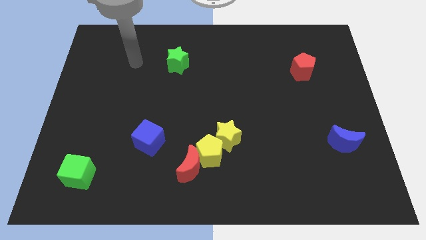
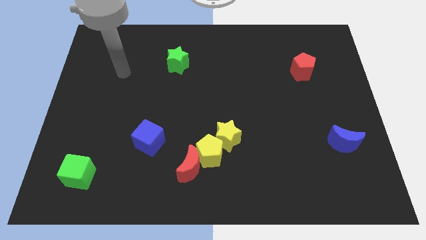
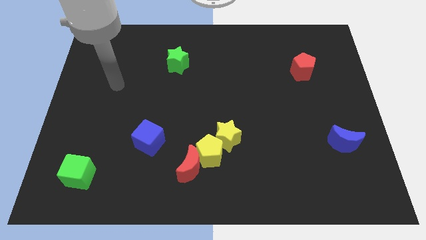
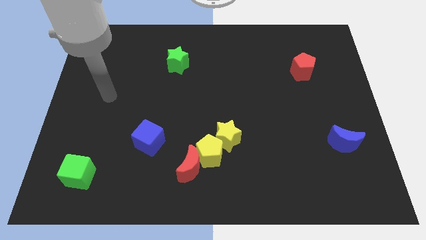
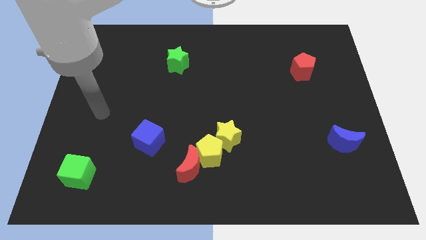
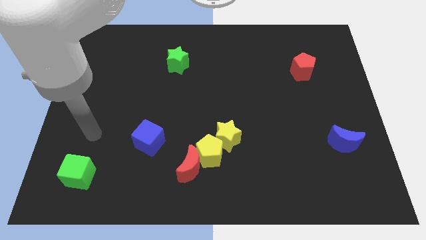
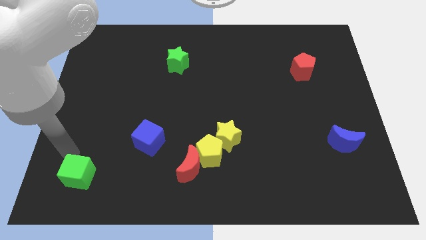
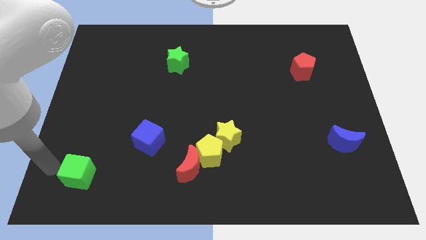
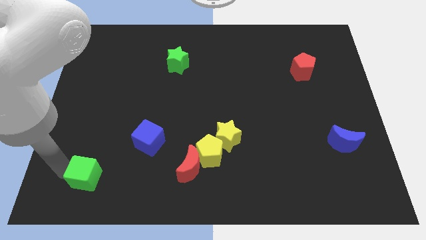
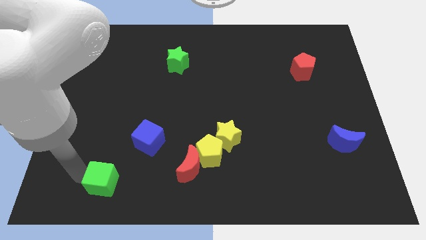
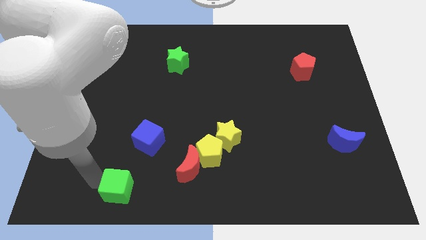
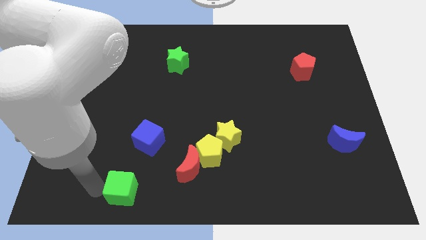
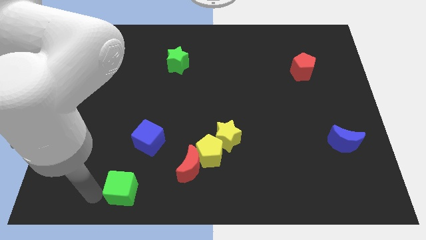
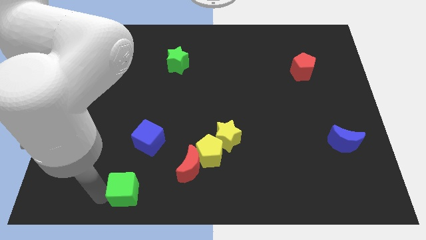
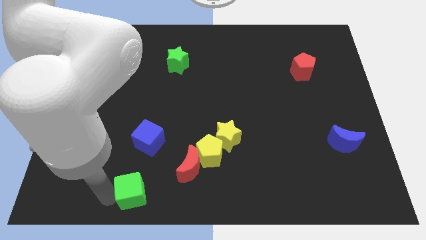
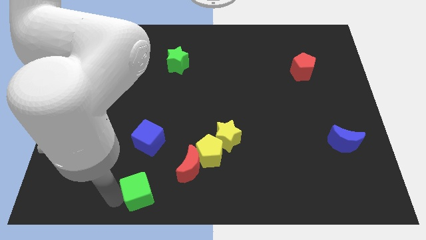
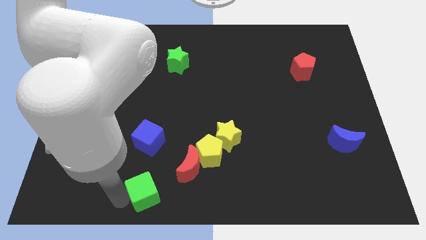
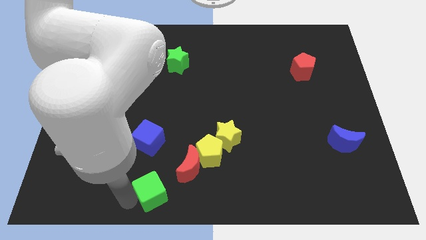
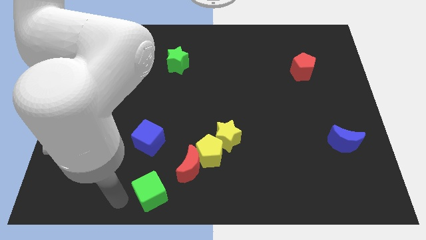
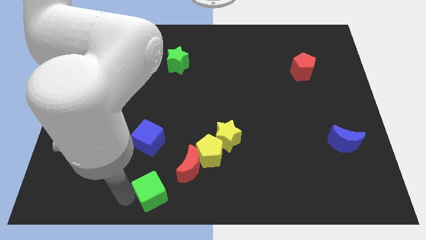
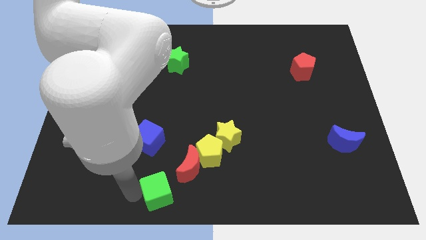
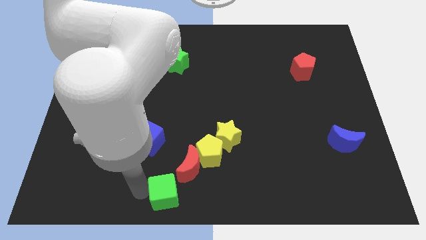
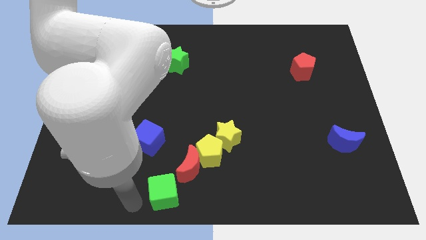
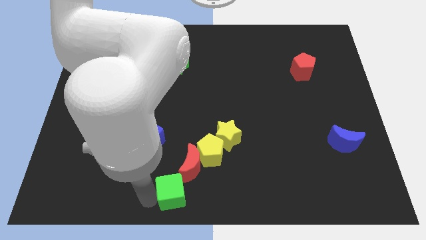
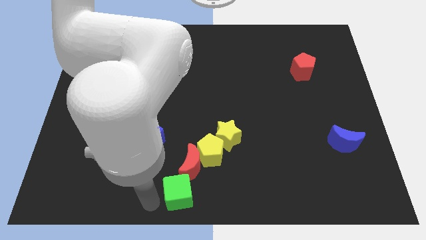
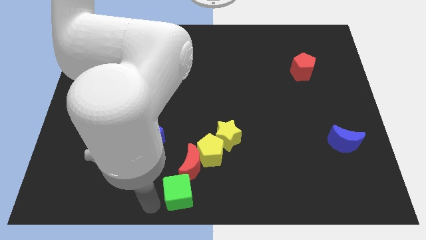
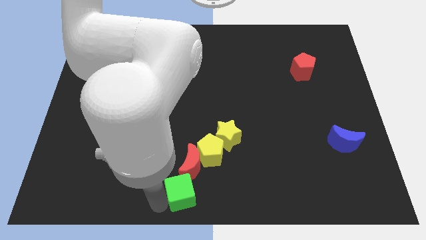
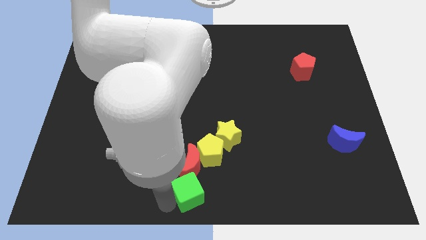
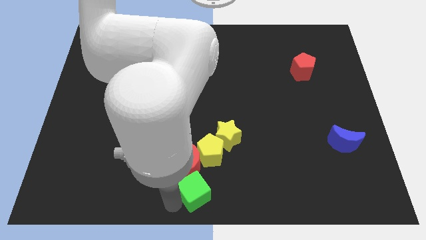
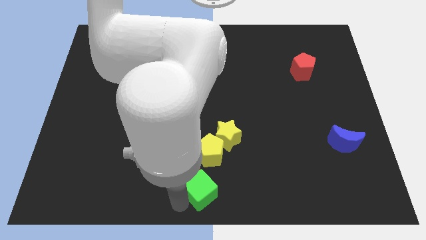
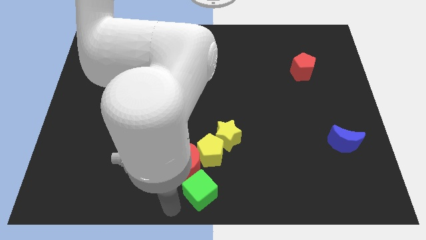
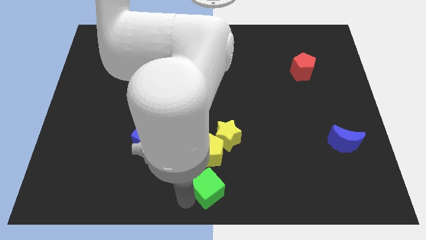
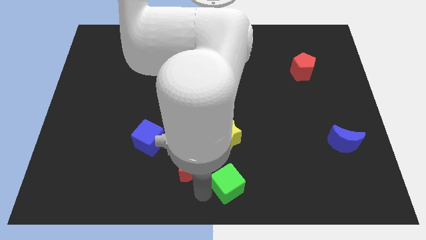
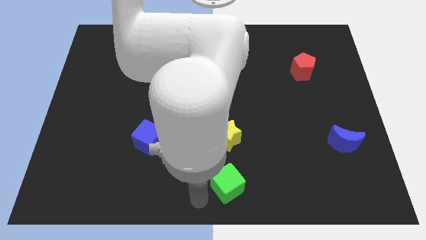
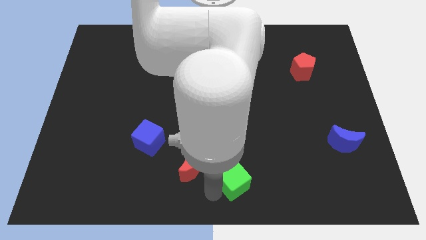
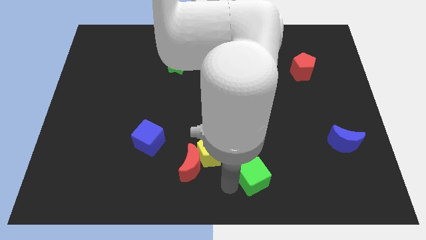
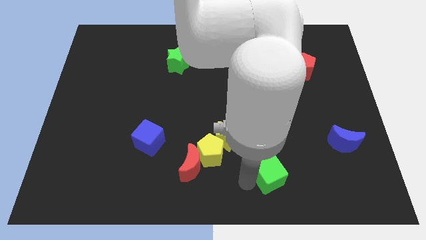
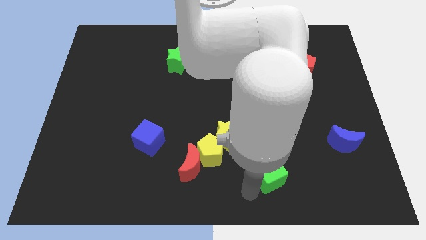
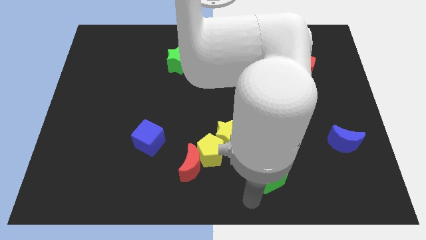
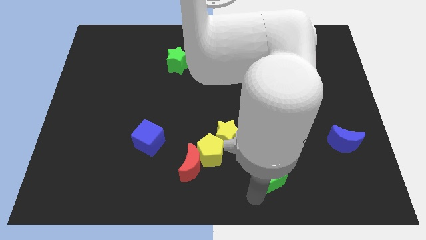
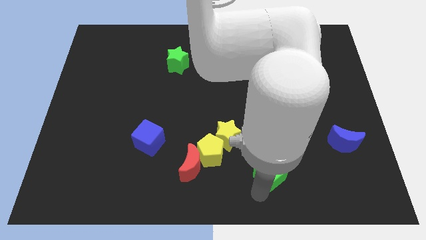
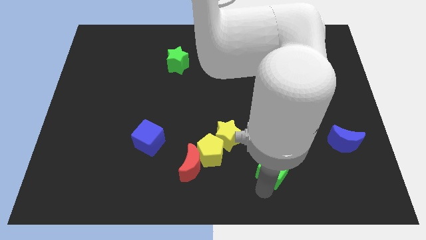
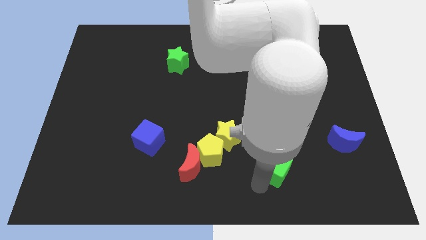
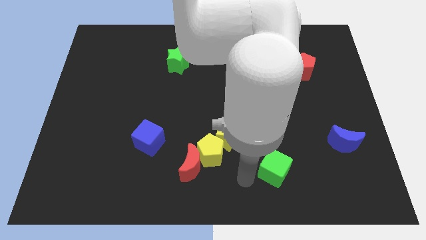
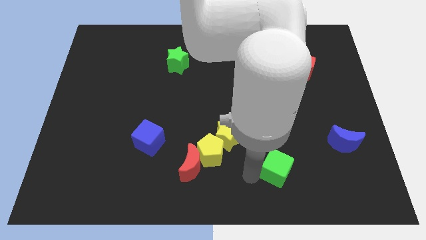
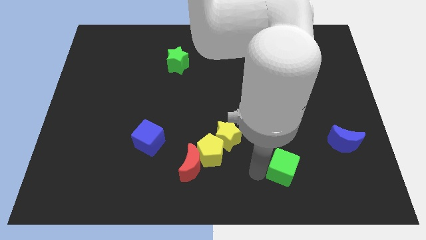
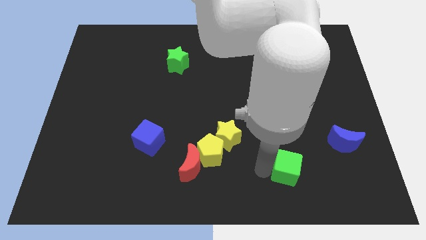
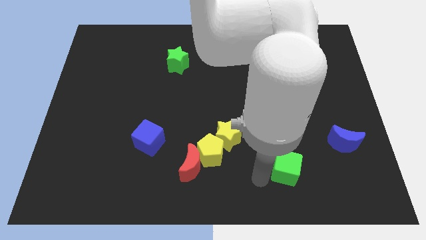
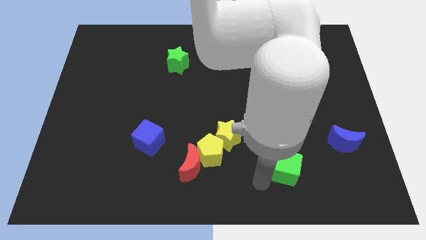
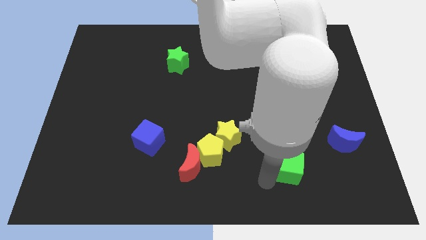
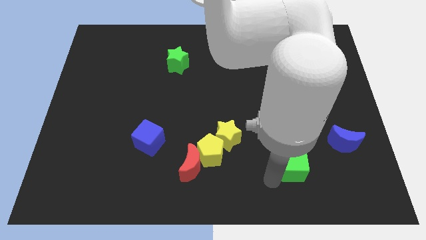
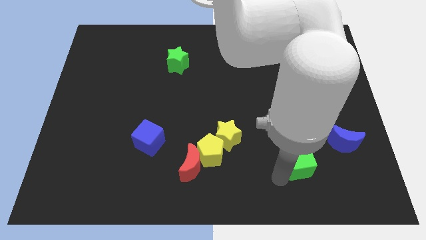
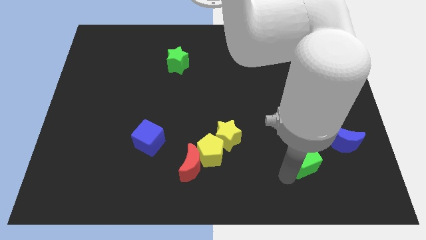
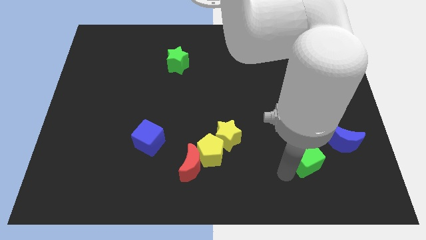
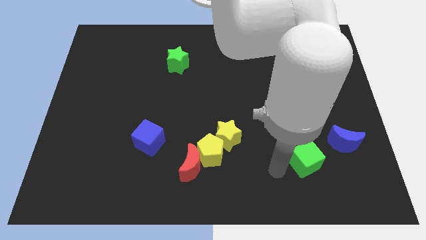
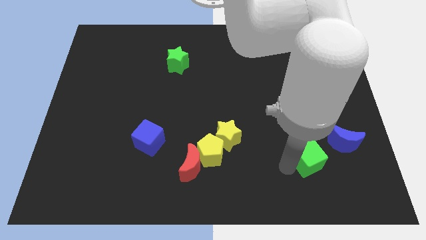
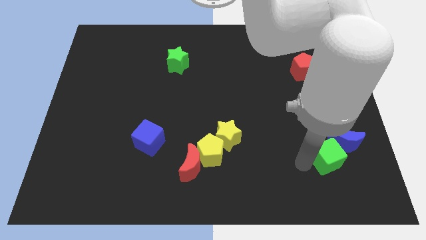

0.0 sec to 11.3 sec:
move the green cube next to the blue moon

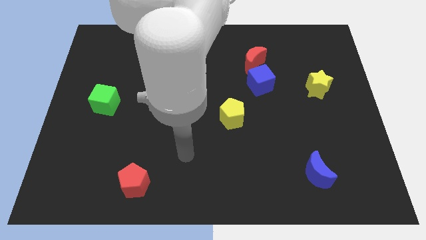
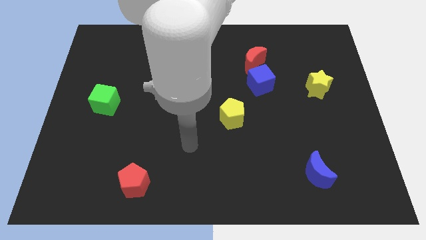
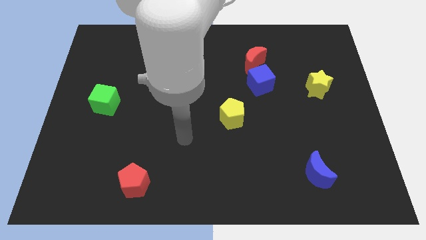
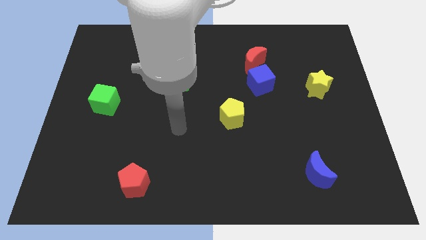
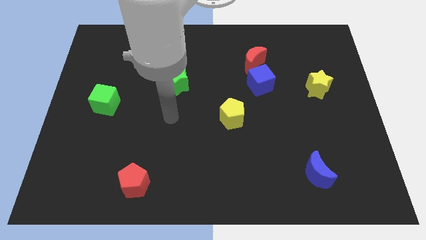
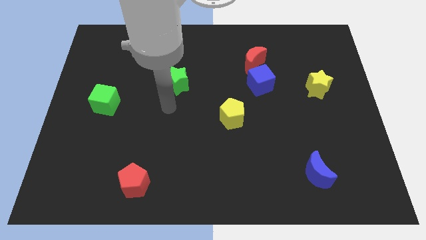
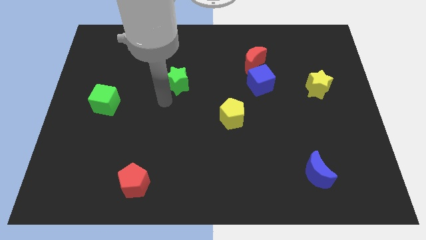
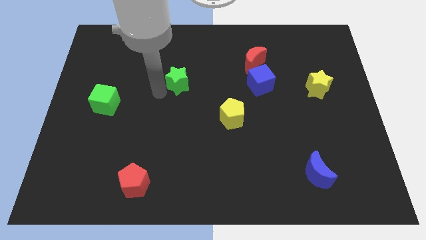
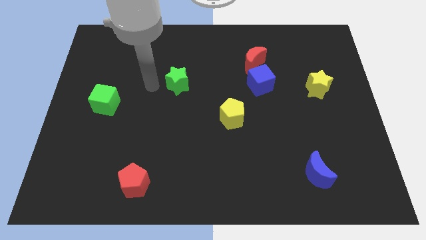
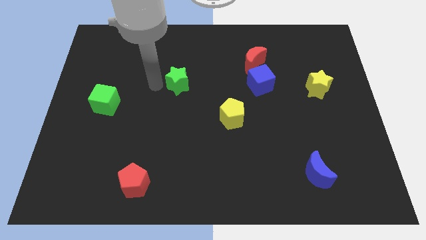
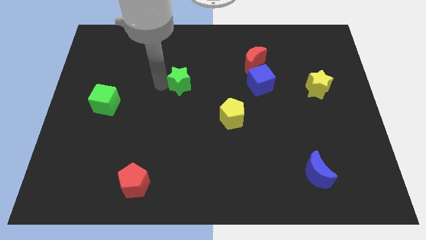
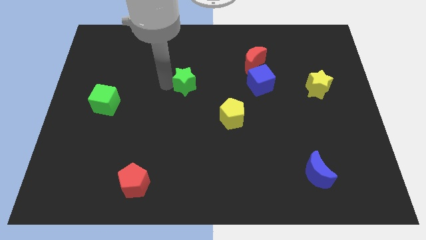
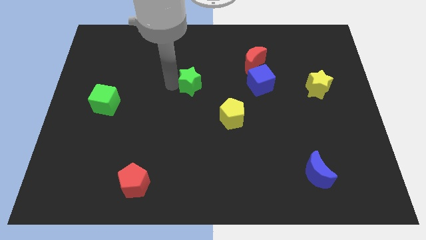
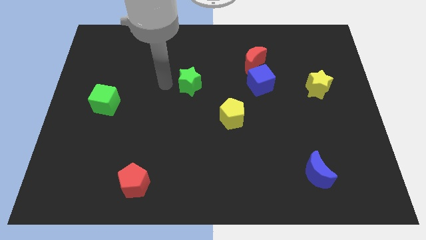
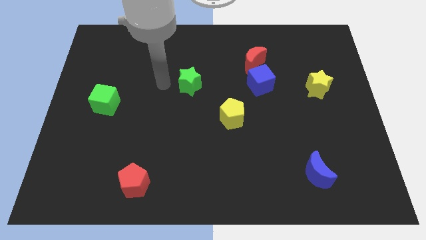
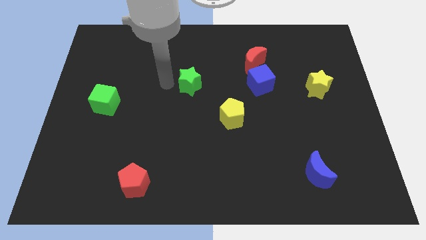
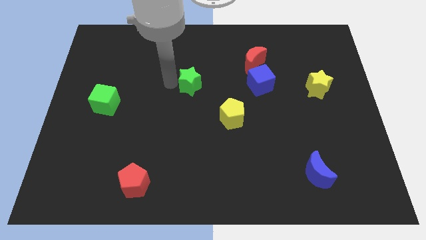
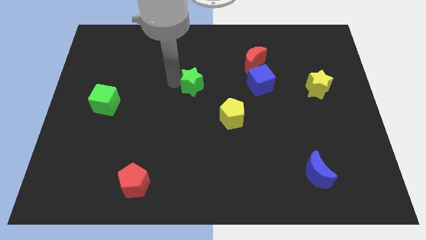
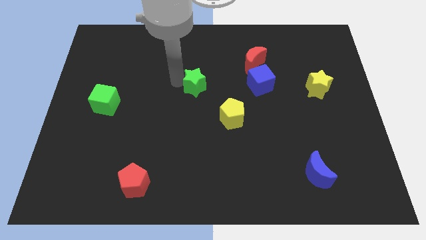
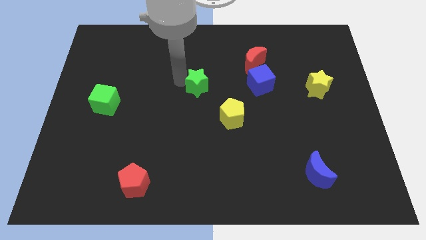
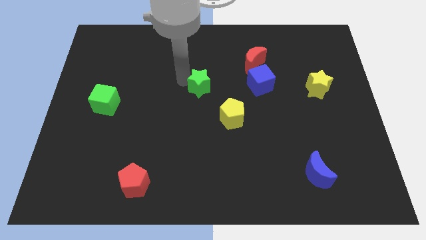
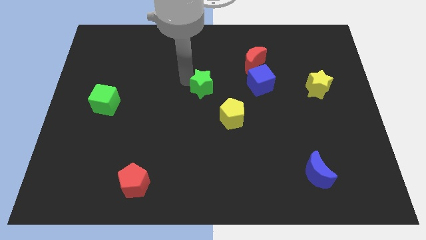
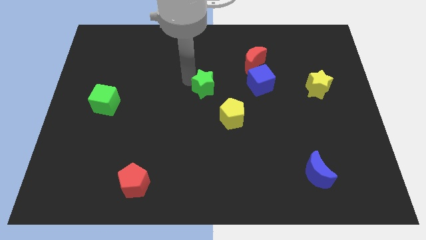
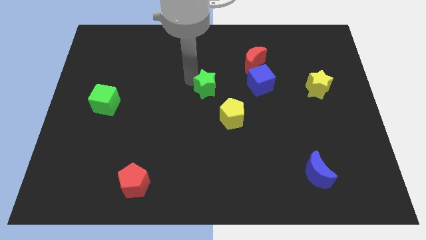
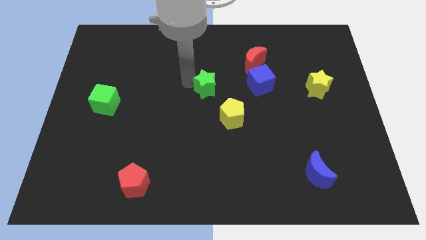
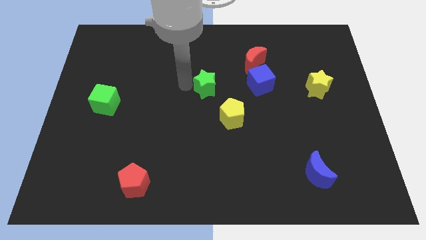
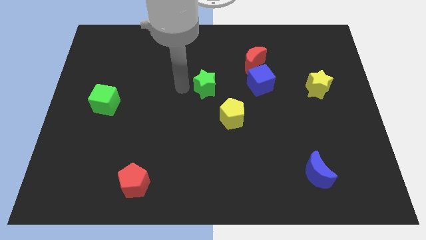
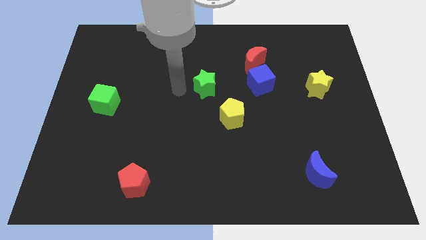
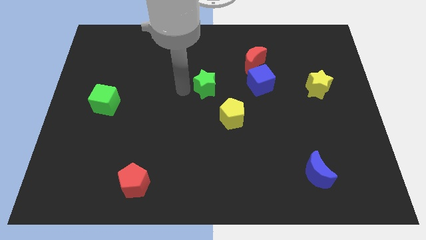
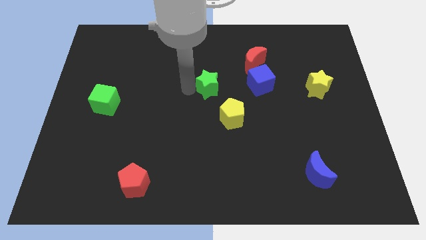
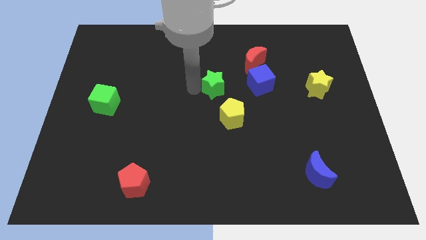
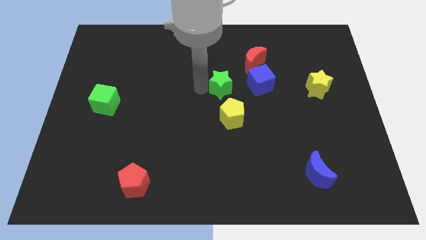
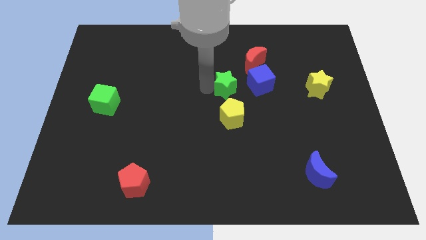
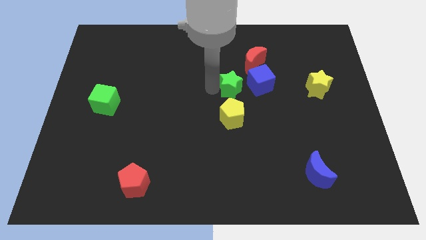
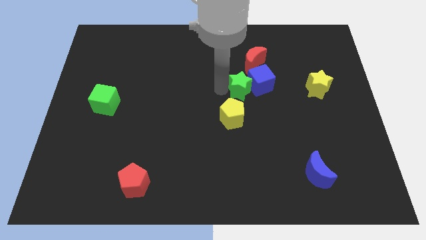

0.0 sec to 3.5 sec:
push the green star close to the blue cube
